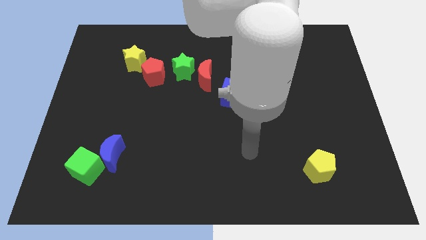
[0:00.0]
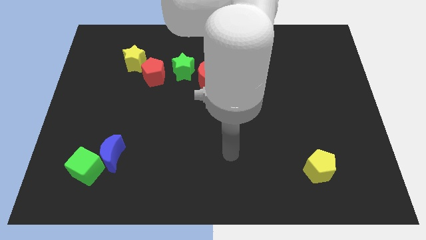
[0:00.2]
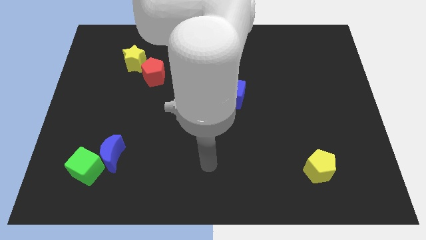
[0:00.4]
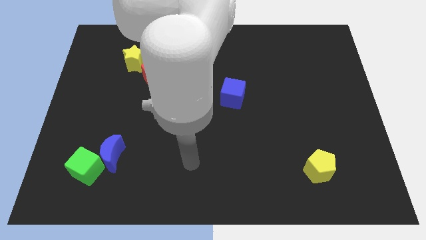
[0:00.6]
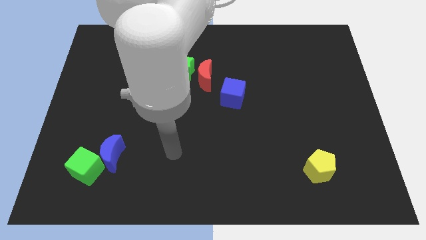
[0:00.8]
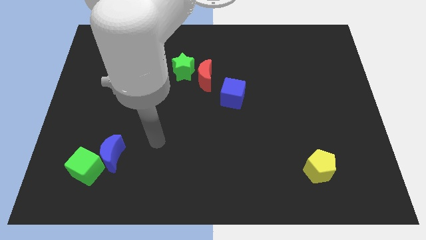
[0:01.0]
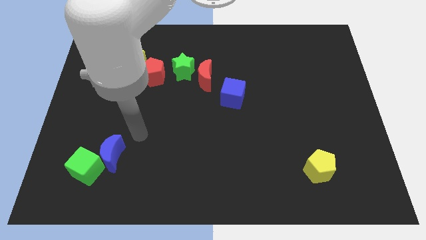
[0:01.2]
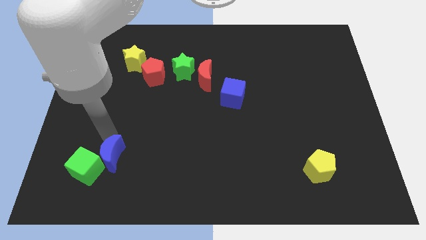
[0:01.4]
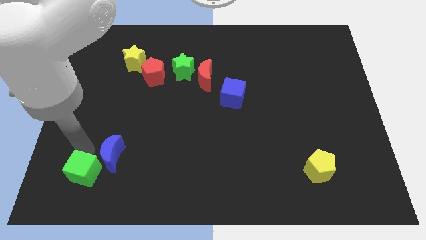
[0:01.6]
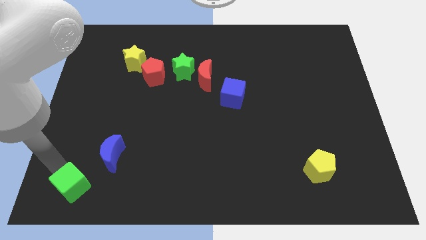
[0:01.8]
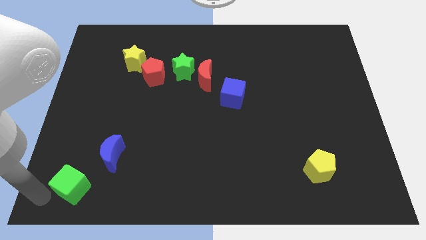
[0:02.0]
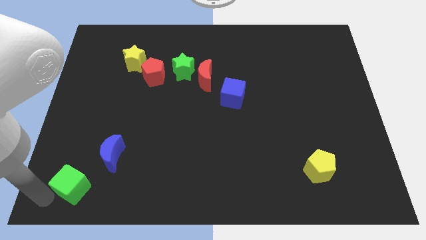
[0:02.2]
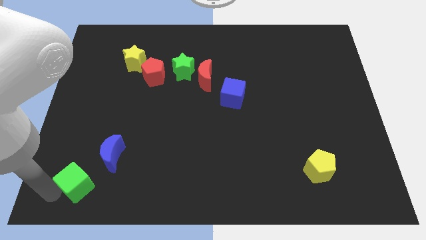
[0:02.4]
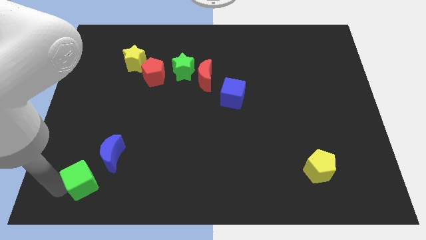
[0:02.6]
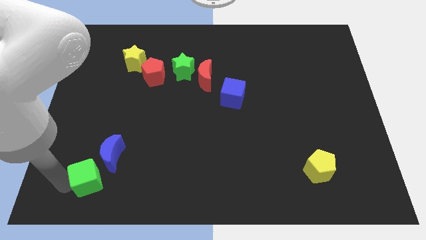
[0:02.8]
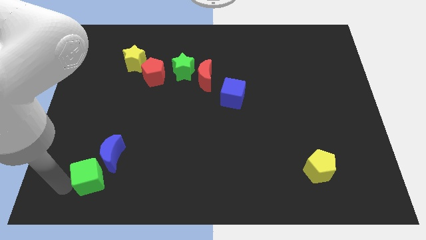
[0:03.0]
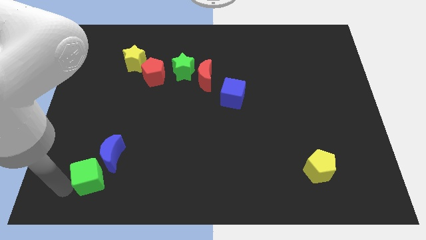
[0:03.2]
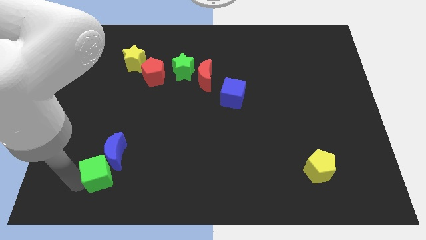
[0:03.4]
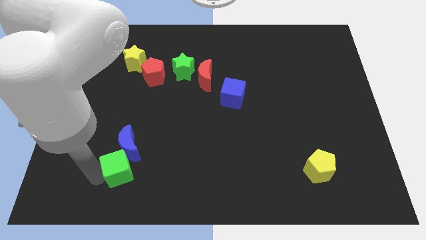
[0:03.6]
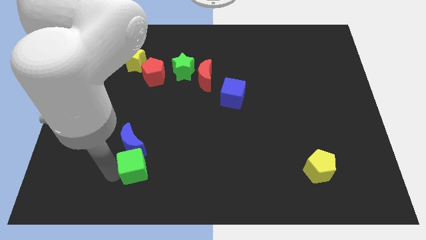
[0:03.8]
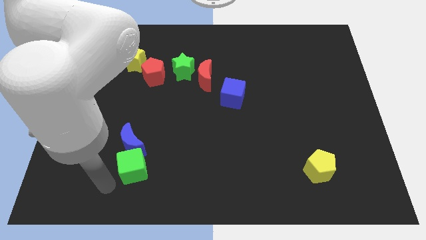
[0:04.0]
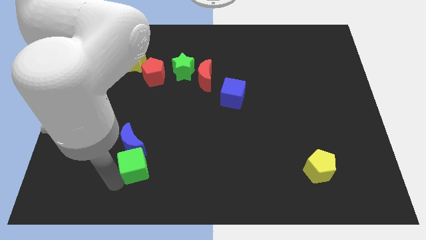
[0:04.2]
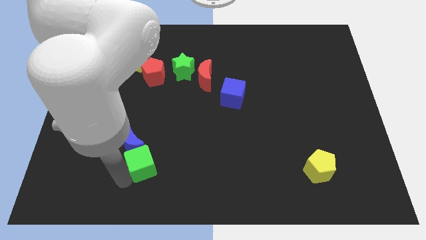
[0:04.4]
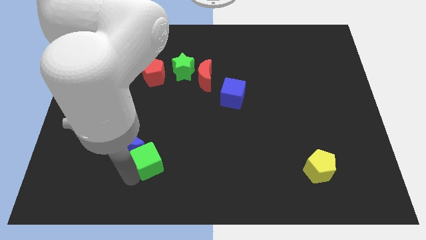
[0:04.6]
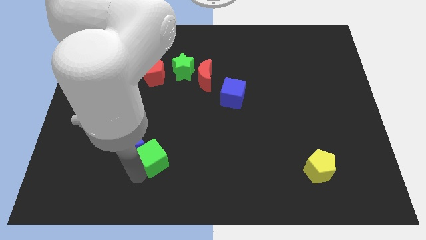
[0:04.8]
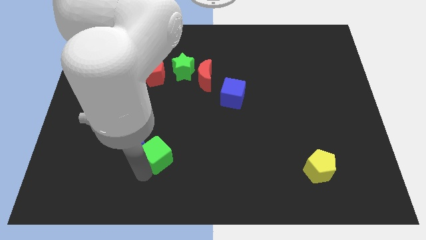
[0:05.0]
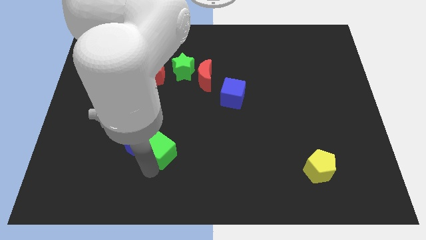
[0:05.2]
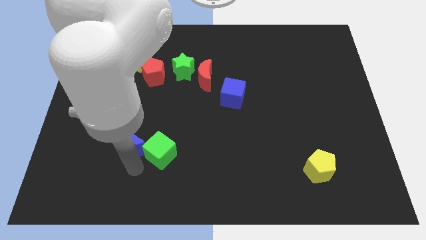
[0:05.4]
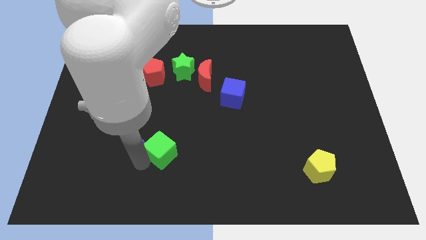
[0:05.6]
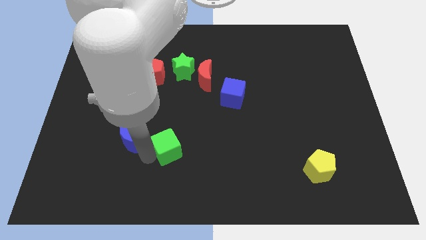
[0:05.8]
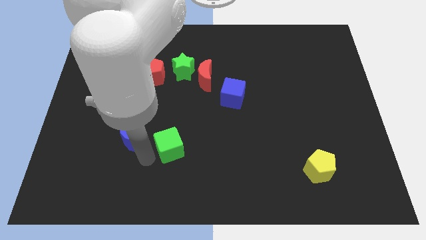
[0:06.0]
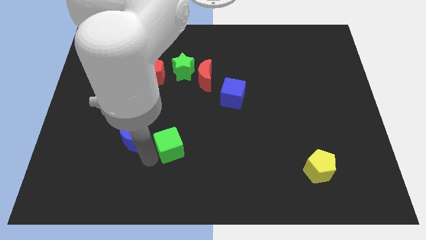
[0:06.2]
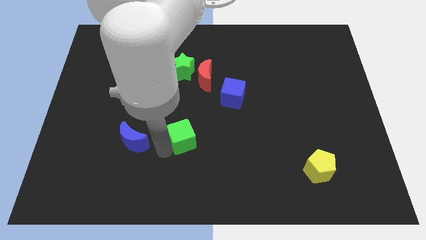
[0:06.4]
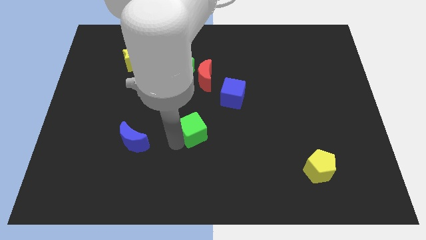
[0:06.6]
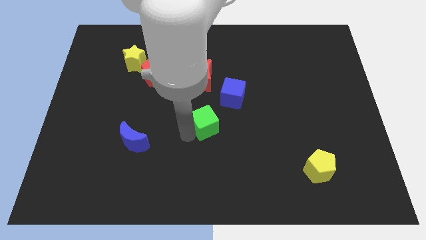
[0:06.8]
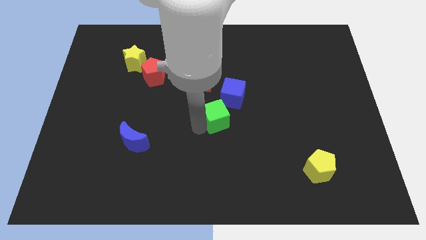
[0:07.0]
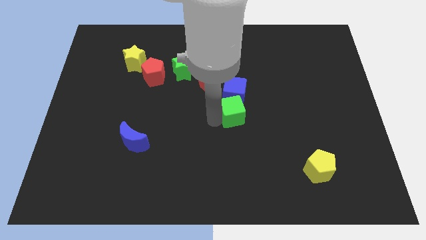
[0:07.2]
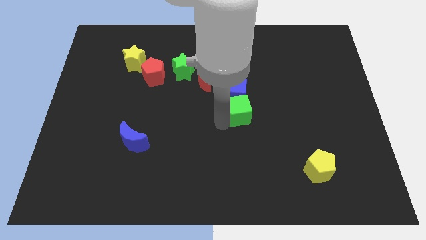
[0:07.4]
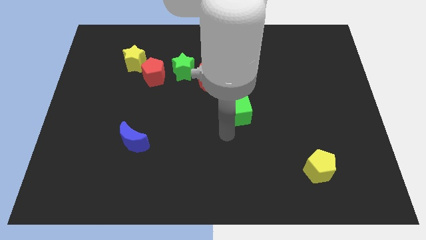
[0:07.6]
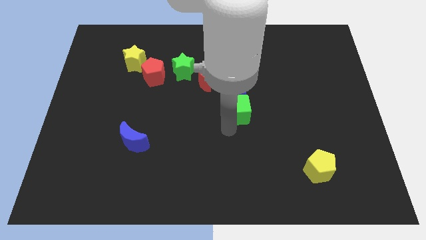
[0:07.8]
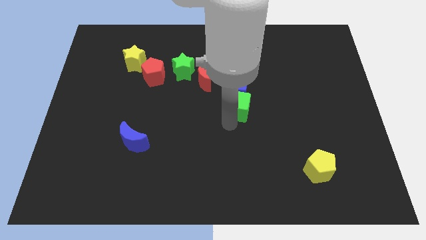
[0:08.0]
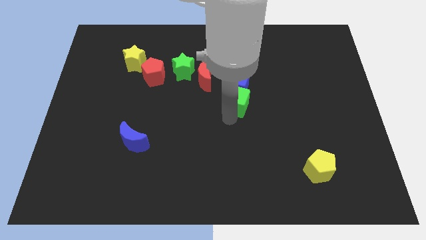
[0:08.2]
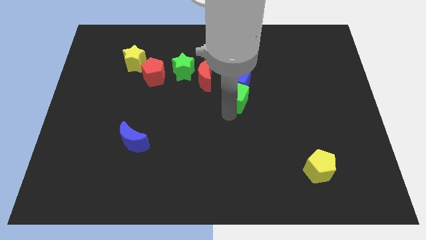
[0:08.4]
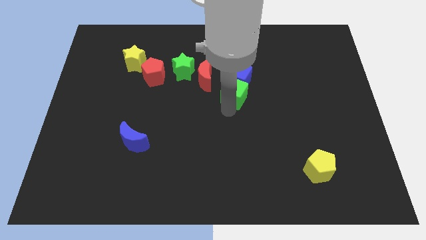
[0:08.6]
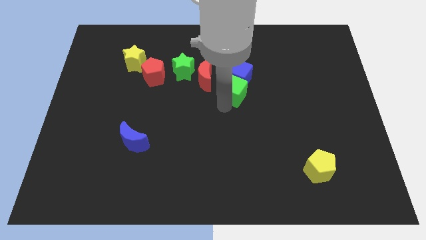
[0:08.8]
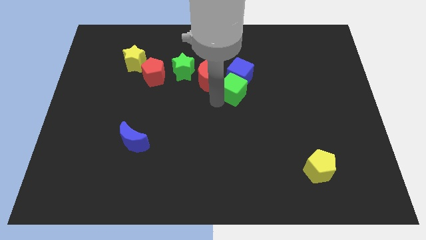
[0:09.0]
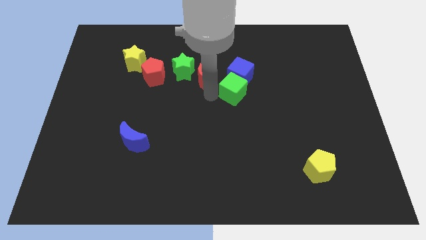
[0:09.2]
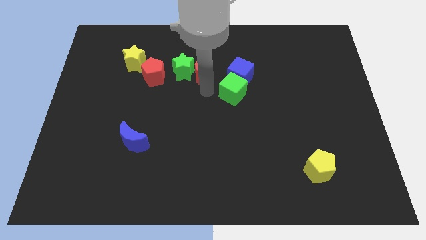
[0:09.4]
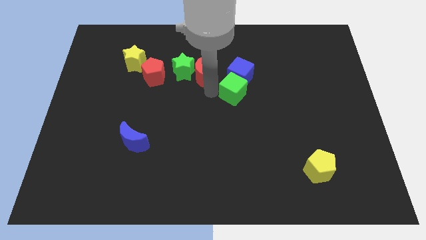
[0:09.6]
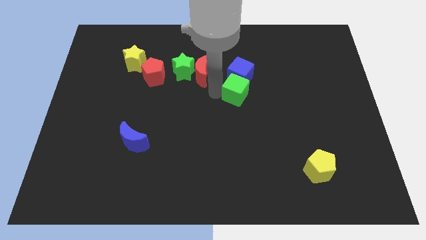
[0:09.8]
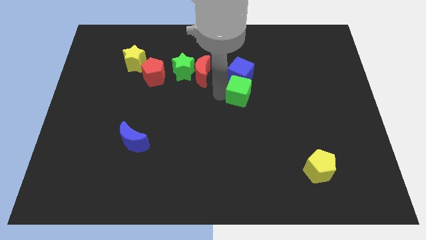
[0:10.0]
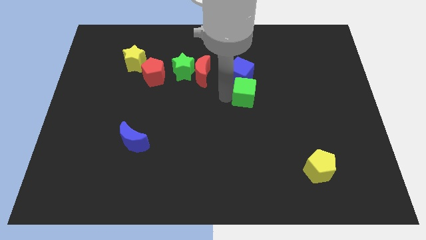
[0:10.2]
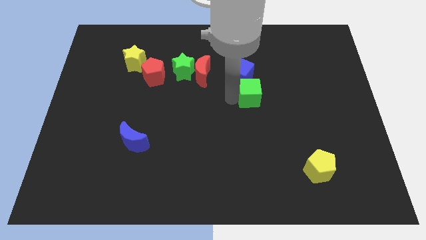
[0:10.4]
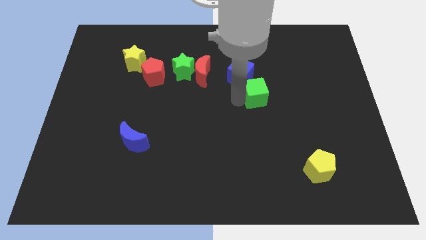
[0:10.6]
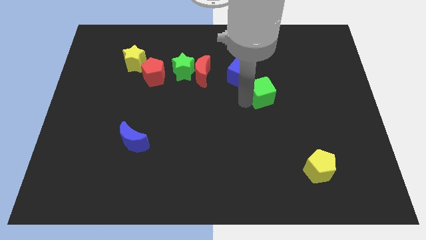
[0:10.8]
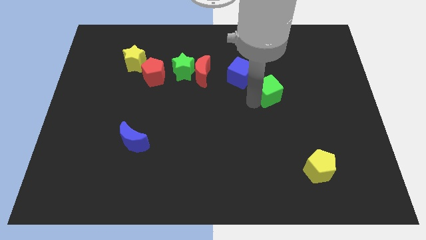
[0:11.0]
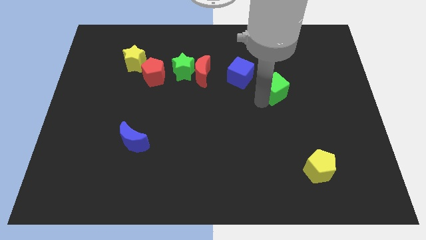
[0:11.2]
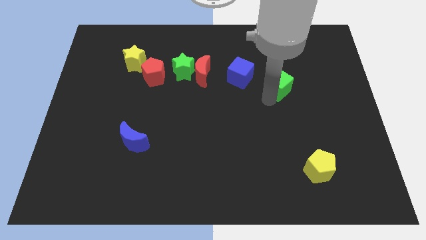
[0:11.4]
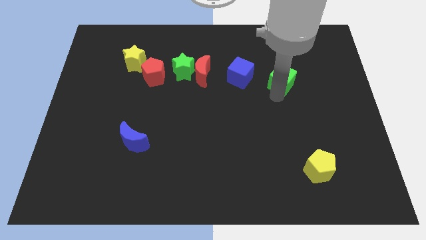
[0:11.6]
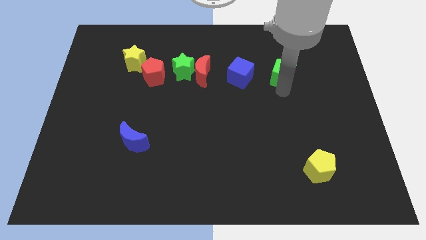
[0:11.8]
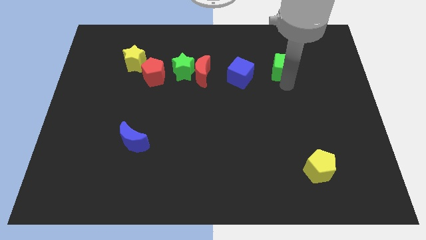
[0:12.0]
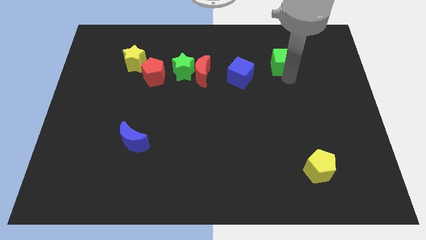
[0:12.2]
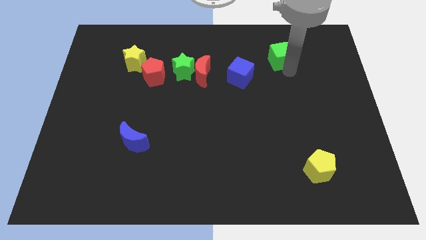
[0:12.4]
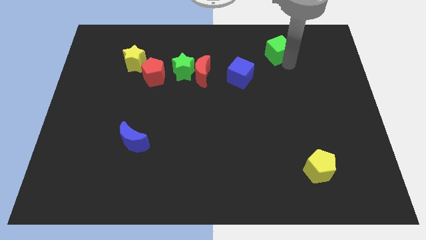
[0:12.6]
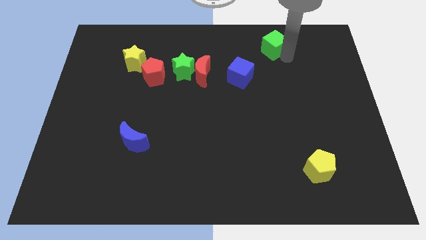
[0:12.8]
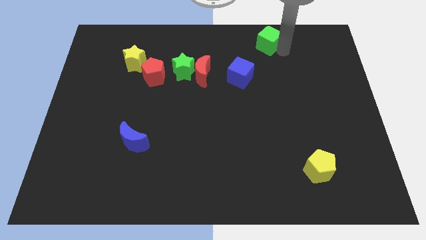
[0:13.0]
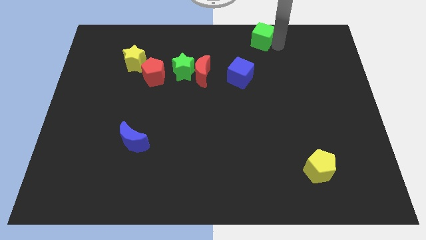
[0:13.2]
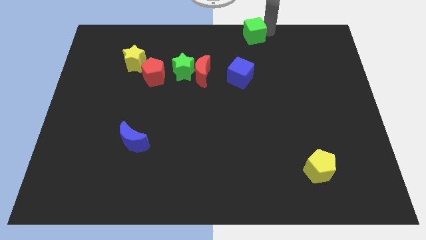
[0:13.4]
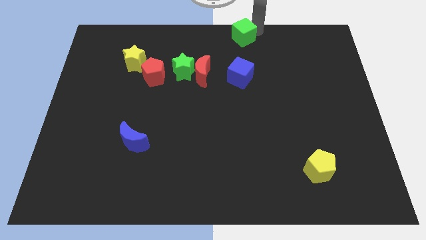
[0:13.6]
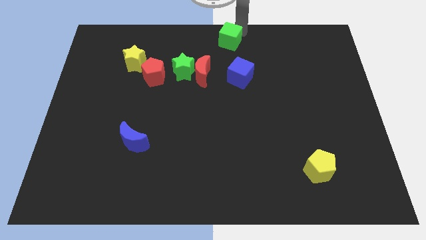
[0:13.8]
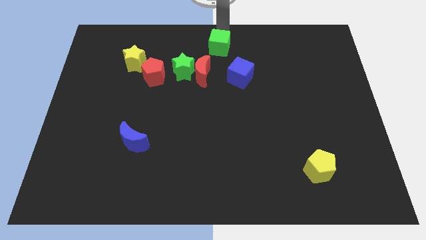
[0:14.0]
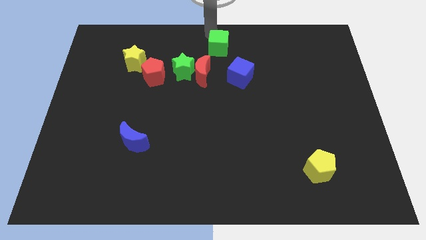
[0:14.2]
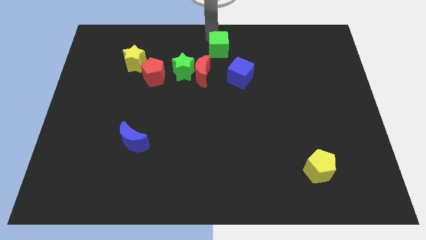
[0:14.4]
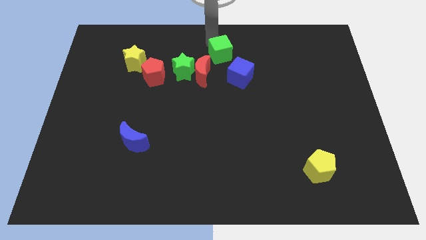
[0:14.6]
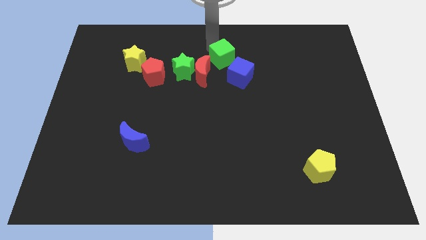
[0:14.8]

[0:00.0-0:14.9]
move the green cube to the right side of the green star
